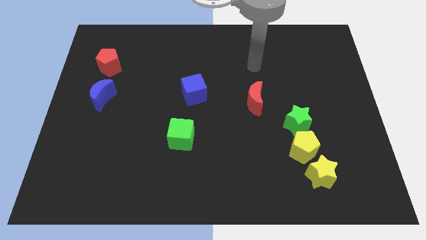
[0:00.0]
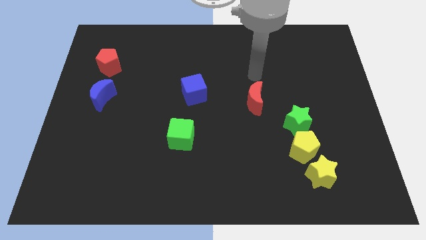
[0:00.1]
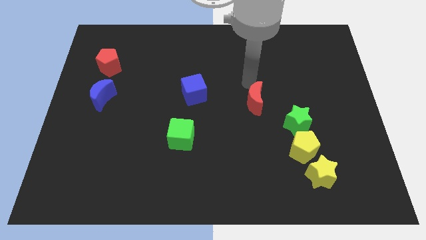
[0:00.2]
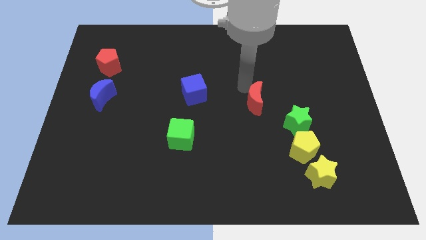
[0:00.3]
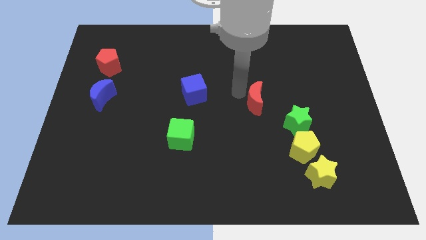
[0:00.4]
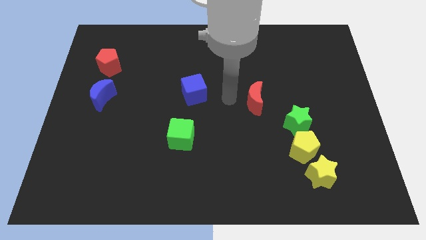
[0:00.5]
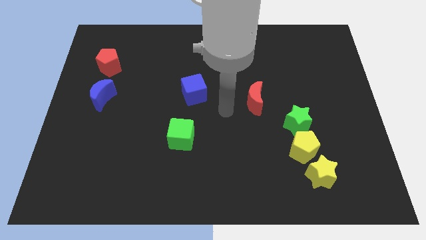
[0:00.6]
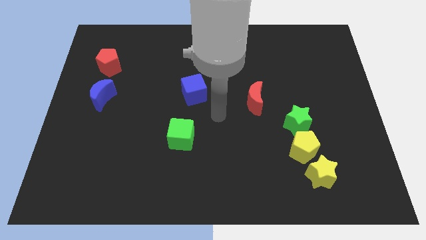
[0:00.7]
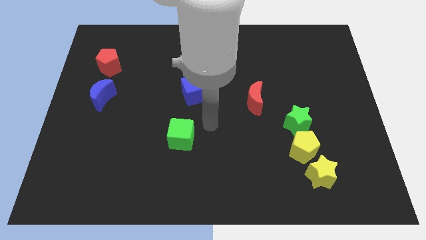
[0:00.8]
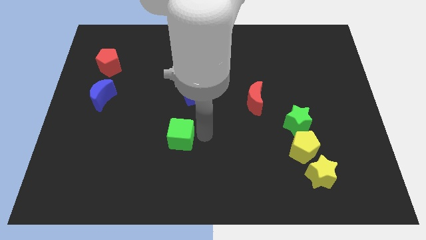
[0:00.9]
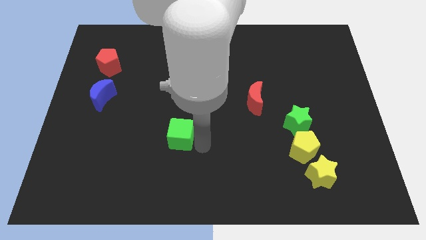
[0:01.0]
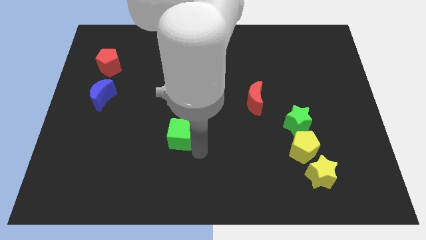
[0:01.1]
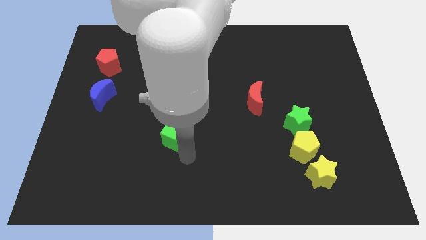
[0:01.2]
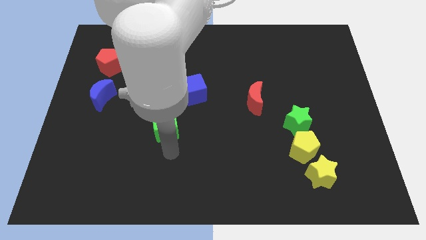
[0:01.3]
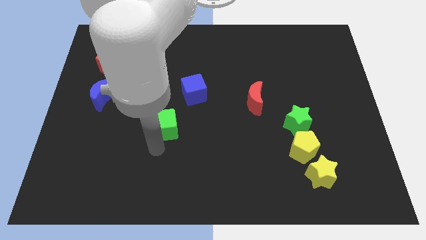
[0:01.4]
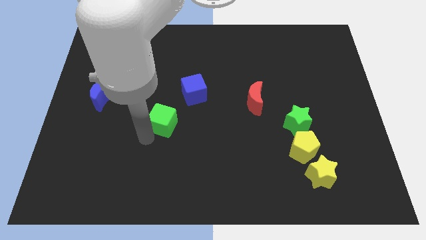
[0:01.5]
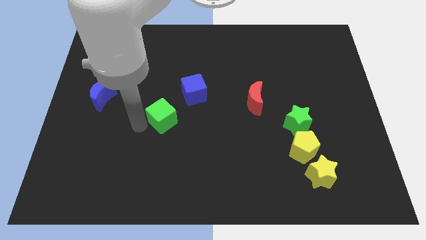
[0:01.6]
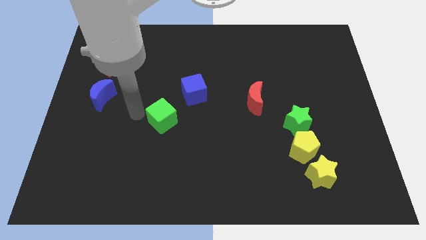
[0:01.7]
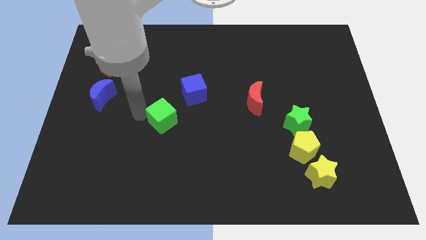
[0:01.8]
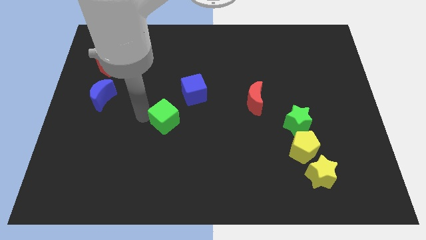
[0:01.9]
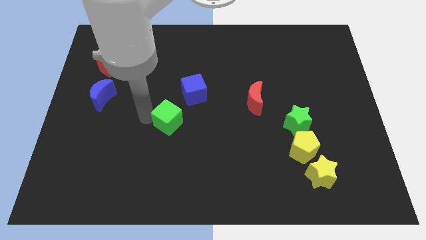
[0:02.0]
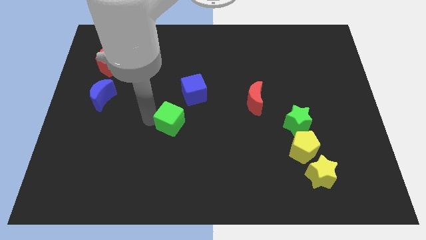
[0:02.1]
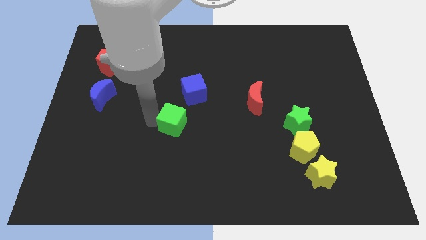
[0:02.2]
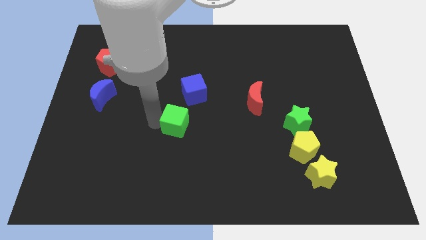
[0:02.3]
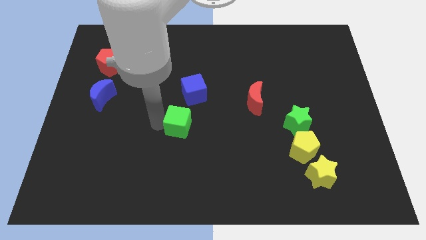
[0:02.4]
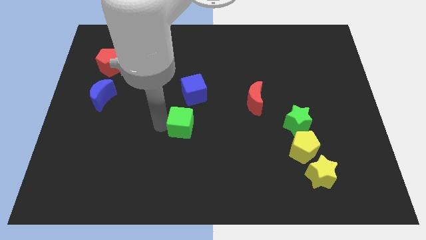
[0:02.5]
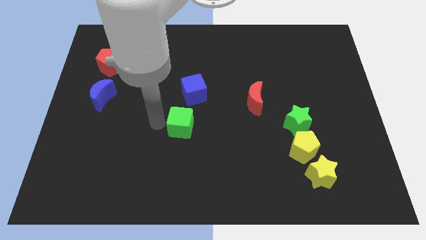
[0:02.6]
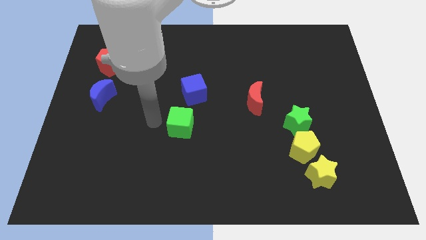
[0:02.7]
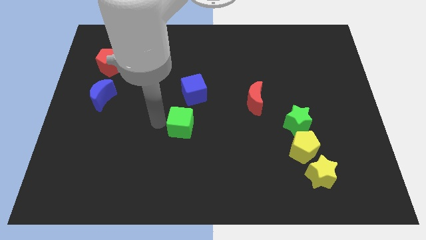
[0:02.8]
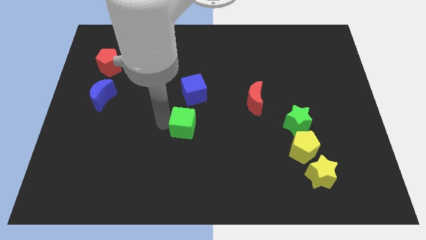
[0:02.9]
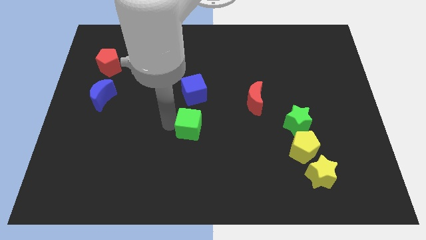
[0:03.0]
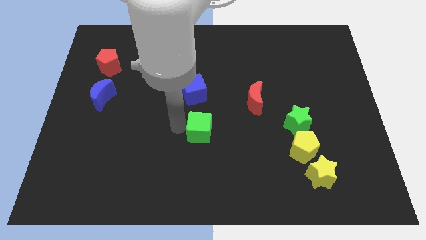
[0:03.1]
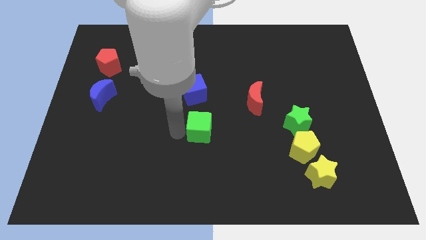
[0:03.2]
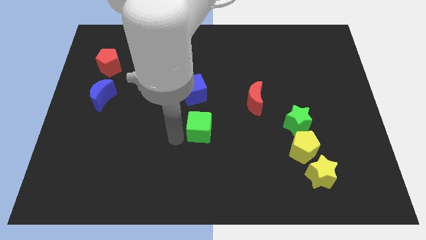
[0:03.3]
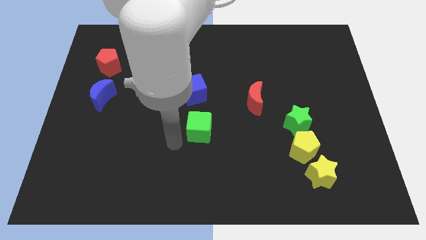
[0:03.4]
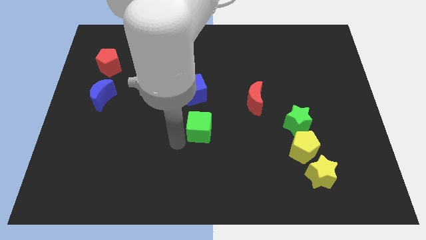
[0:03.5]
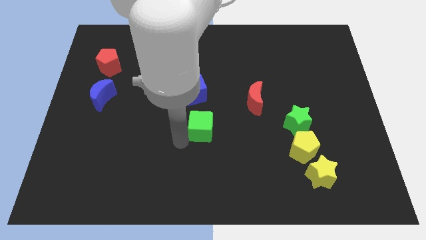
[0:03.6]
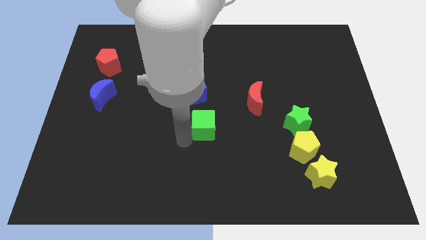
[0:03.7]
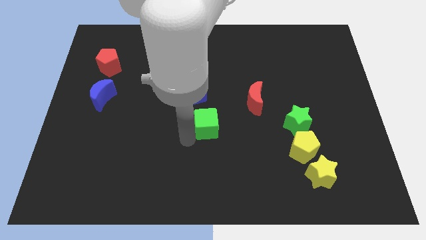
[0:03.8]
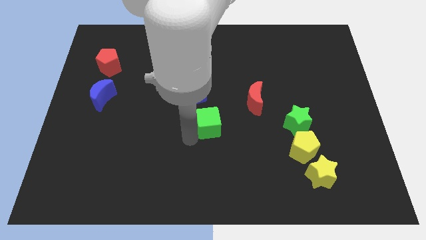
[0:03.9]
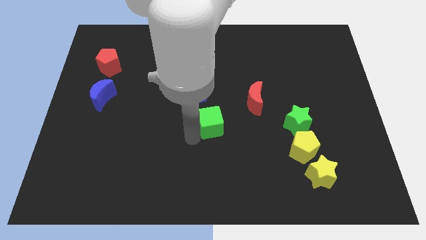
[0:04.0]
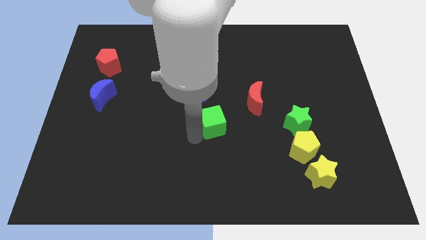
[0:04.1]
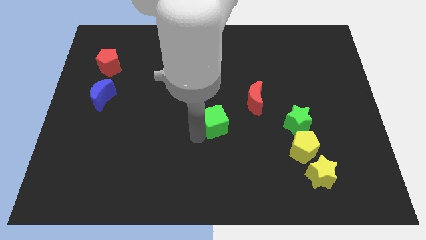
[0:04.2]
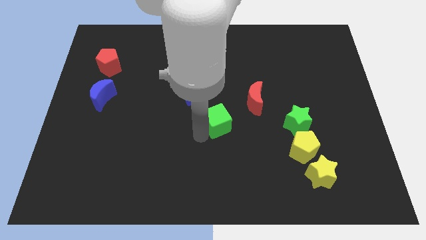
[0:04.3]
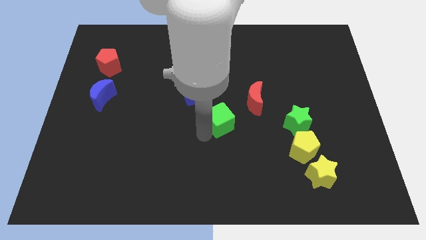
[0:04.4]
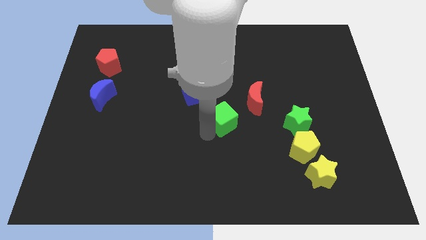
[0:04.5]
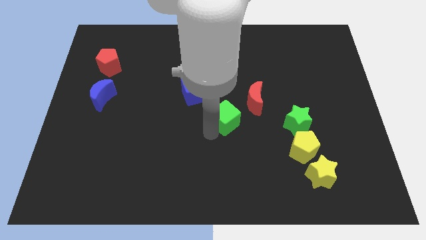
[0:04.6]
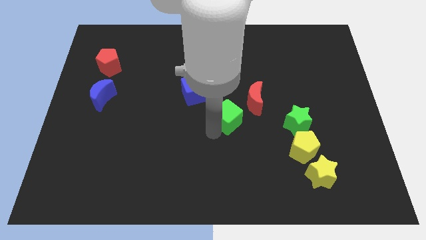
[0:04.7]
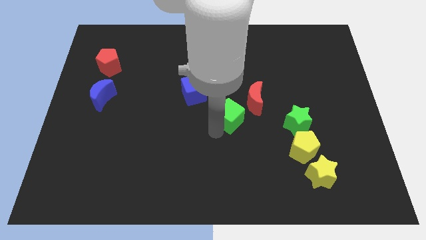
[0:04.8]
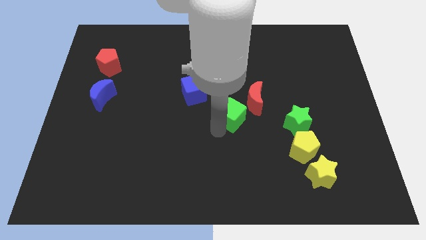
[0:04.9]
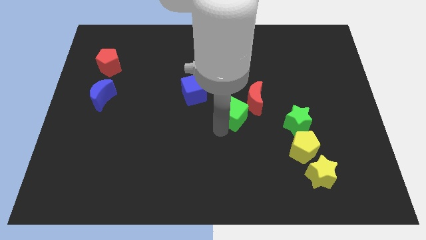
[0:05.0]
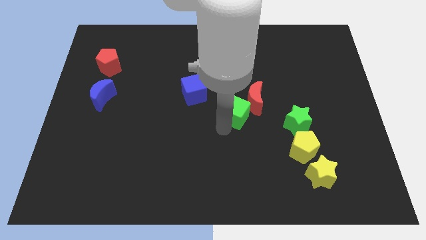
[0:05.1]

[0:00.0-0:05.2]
slide the green cube close to the red moon

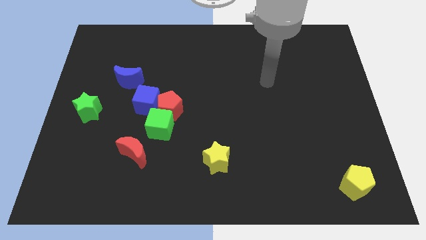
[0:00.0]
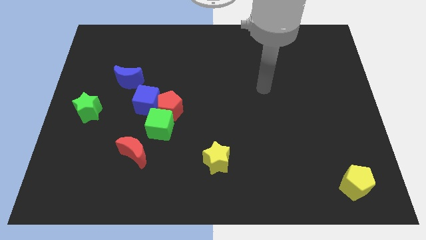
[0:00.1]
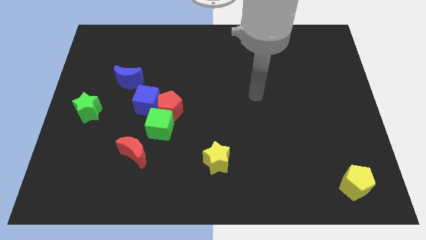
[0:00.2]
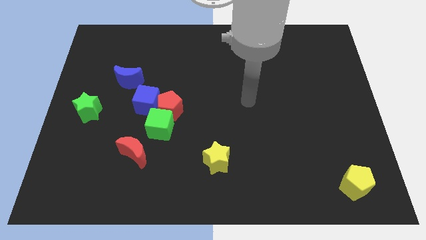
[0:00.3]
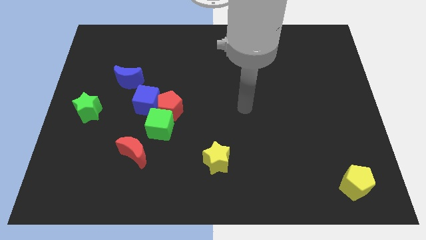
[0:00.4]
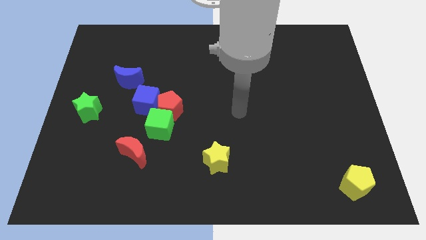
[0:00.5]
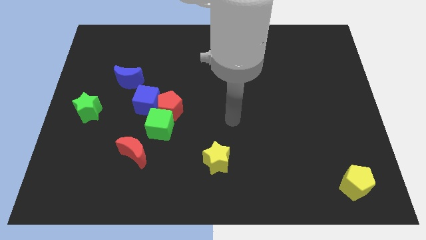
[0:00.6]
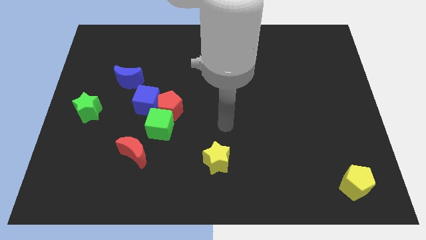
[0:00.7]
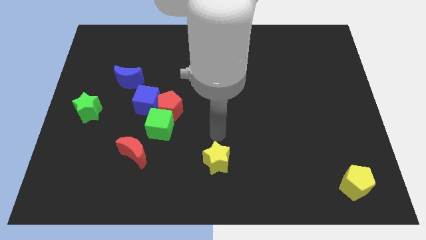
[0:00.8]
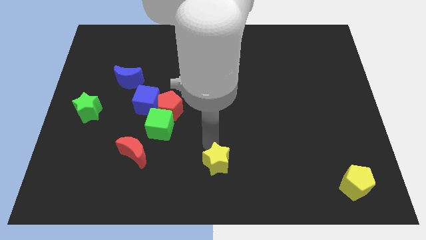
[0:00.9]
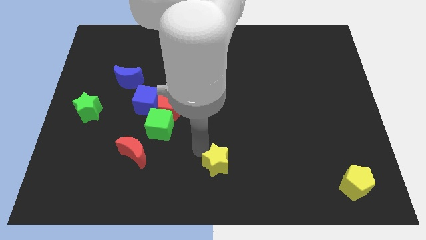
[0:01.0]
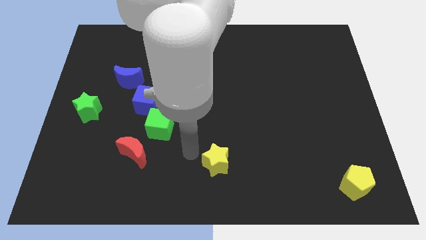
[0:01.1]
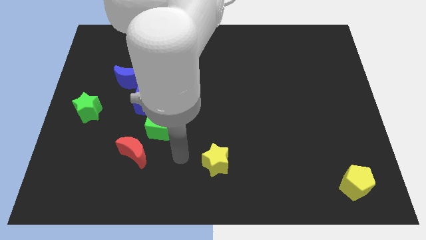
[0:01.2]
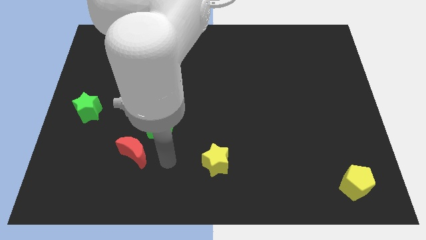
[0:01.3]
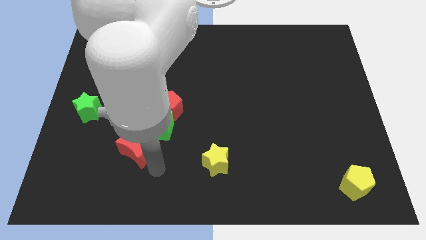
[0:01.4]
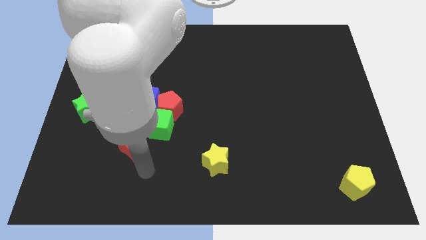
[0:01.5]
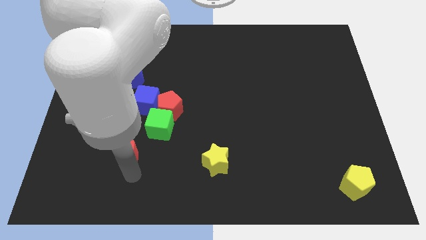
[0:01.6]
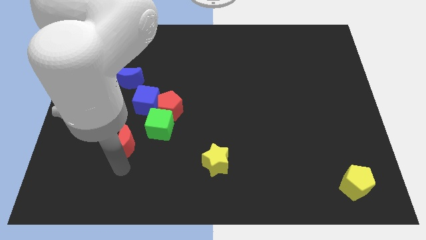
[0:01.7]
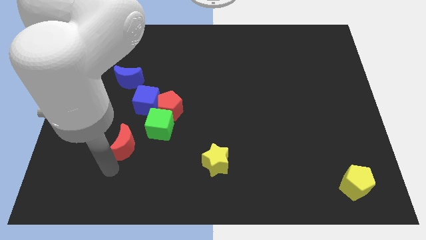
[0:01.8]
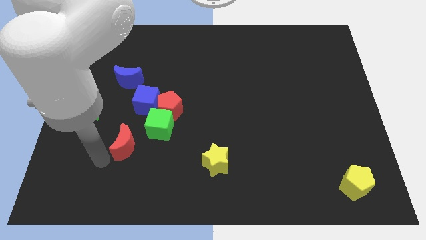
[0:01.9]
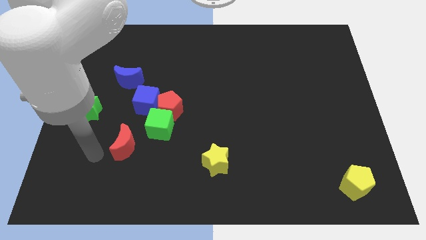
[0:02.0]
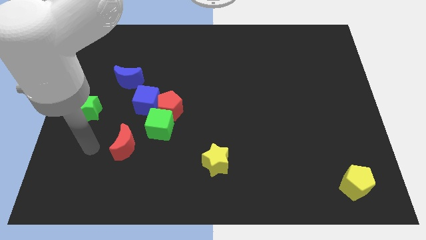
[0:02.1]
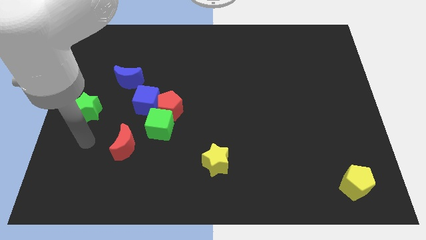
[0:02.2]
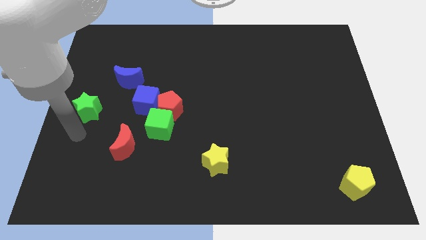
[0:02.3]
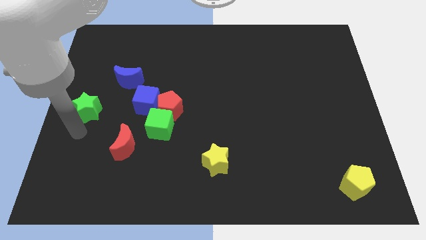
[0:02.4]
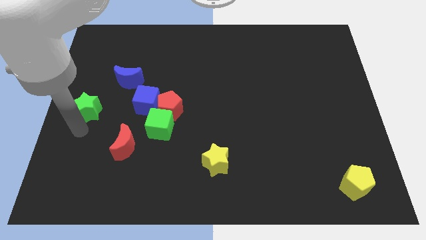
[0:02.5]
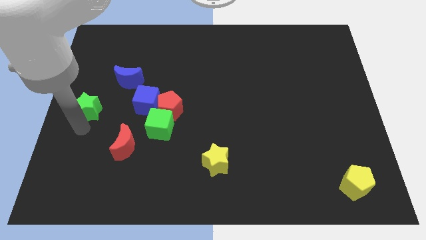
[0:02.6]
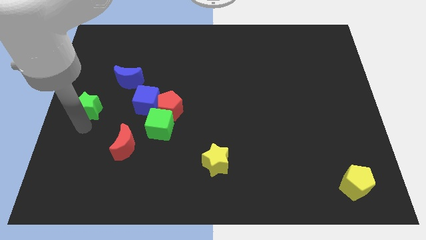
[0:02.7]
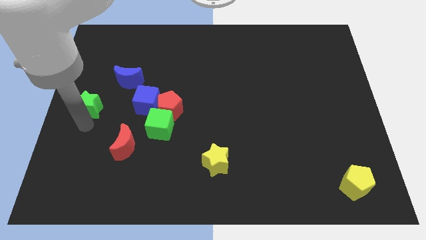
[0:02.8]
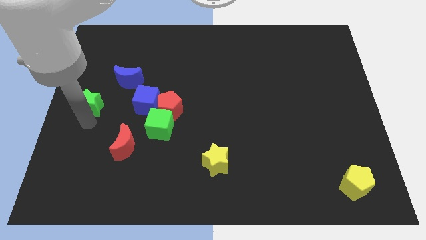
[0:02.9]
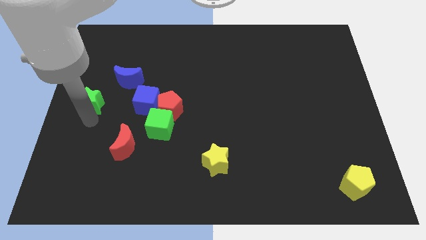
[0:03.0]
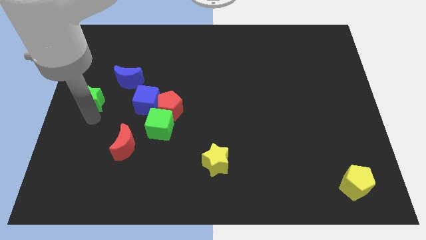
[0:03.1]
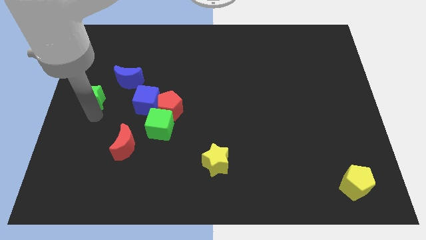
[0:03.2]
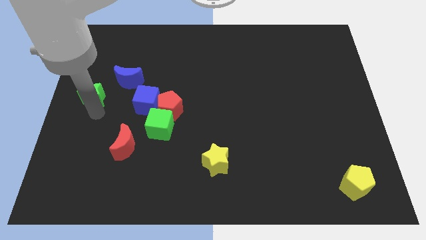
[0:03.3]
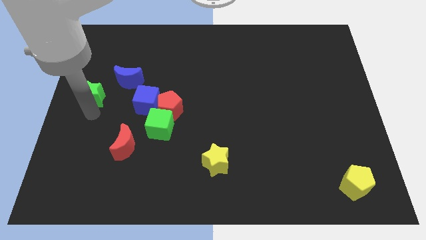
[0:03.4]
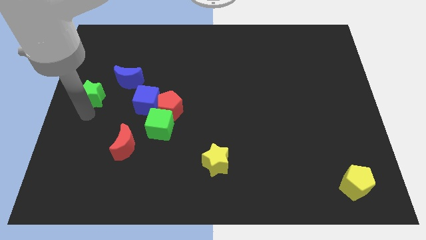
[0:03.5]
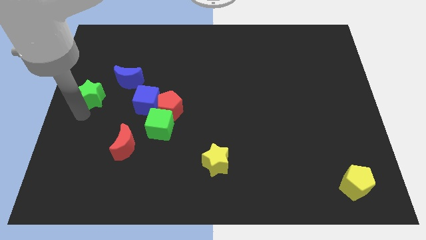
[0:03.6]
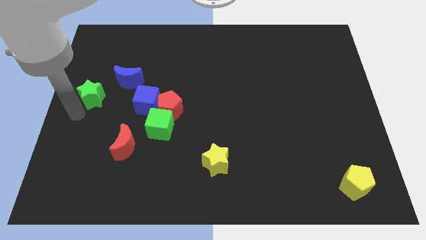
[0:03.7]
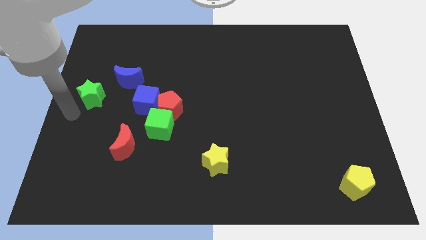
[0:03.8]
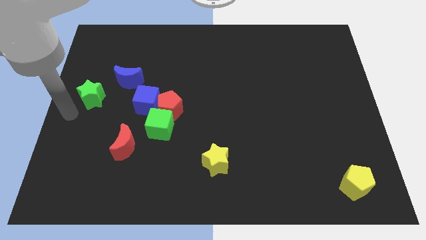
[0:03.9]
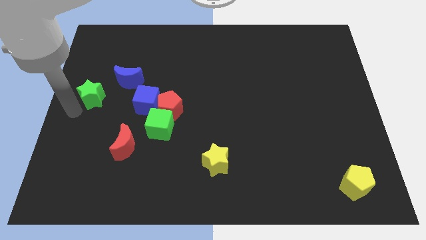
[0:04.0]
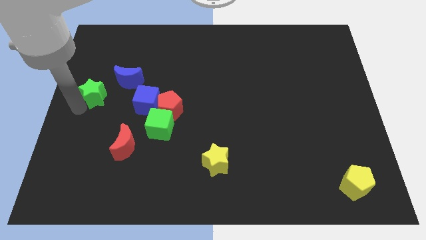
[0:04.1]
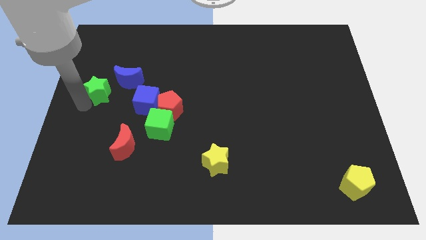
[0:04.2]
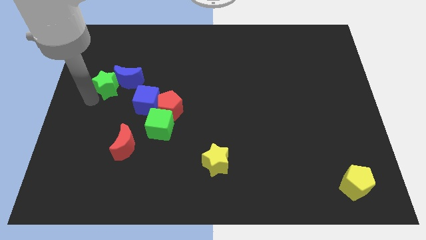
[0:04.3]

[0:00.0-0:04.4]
slide the green star close to the blue moon
